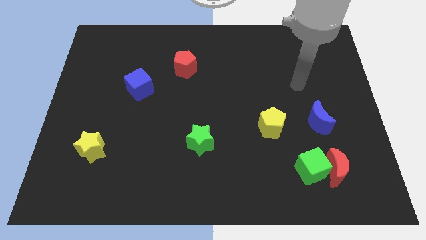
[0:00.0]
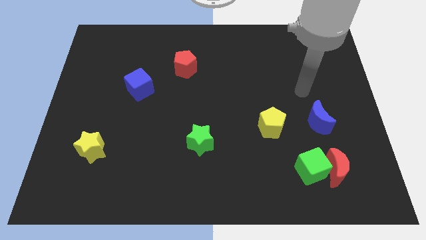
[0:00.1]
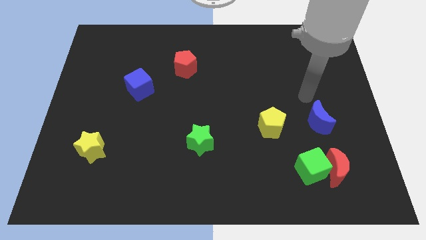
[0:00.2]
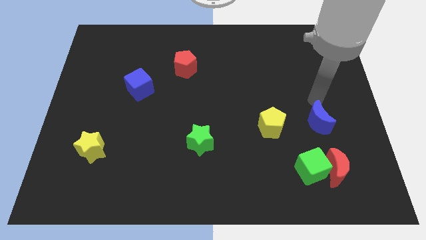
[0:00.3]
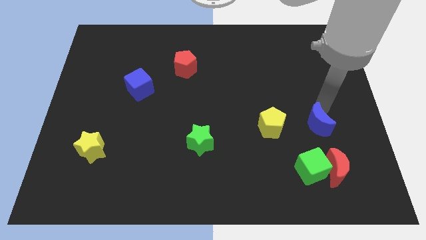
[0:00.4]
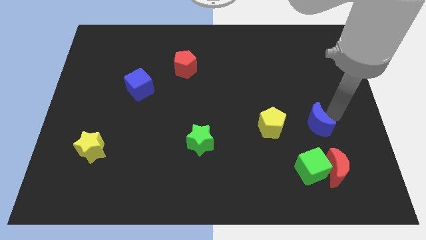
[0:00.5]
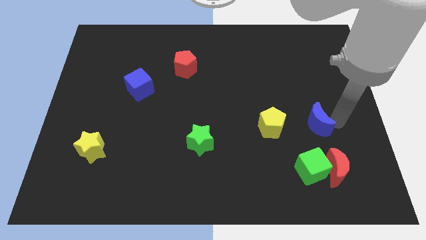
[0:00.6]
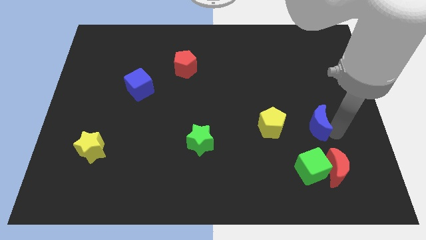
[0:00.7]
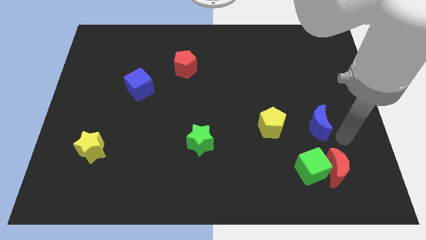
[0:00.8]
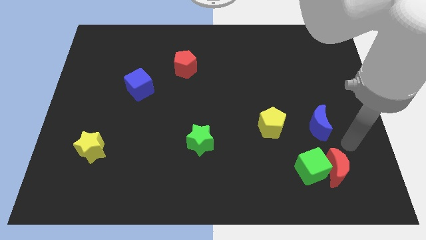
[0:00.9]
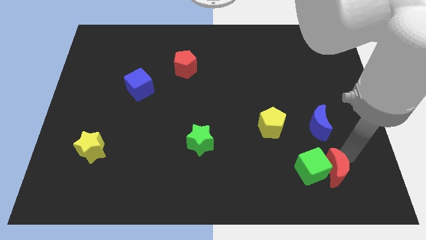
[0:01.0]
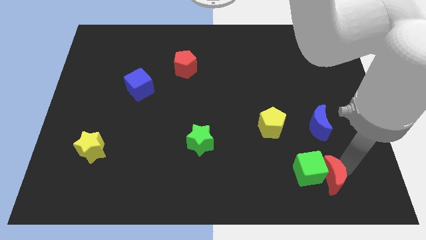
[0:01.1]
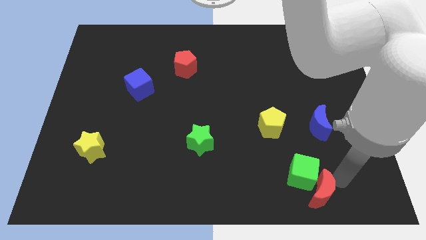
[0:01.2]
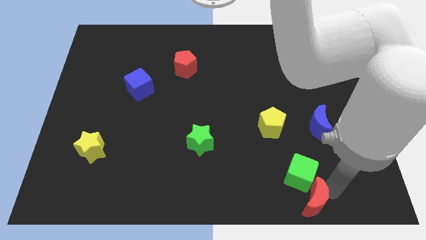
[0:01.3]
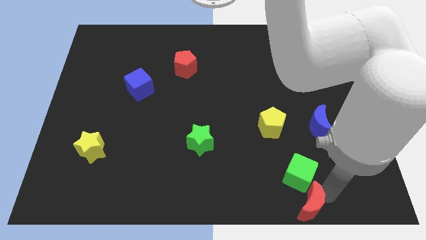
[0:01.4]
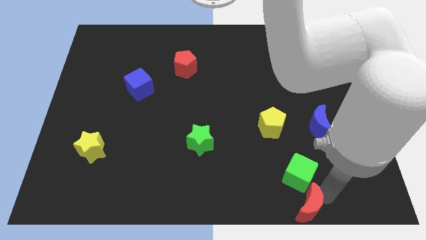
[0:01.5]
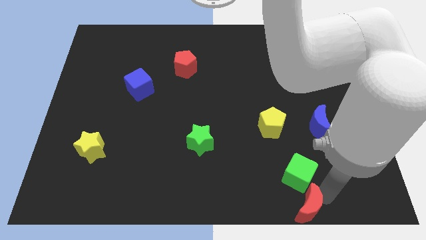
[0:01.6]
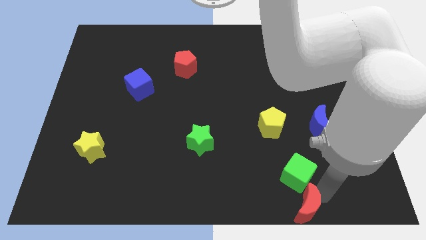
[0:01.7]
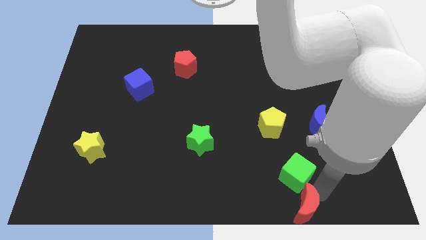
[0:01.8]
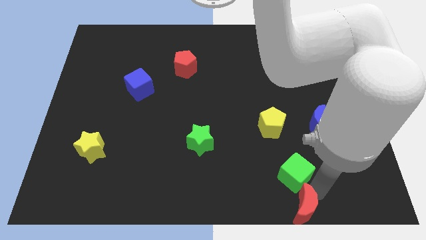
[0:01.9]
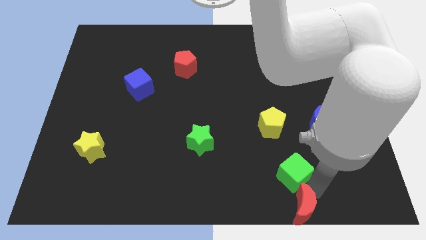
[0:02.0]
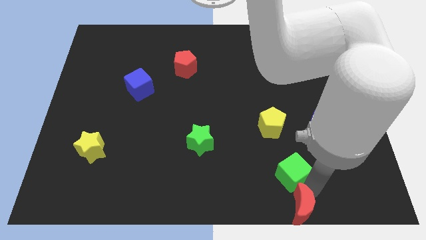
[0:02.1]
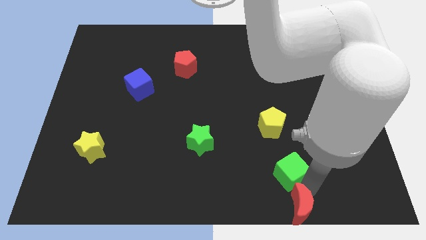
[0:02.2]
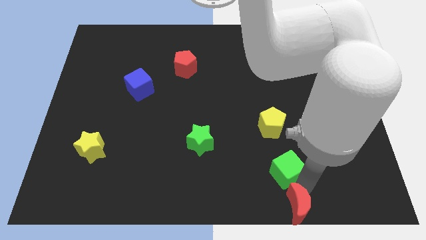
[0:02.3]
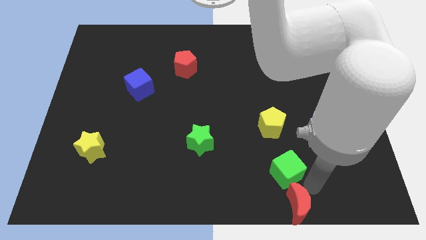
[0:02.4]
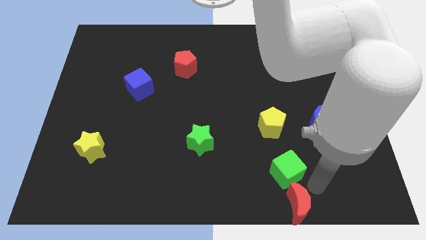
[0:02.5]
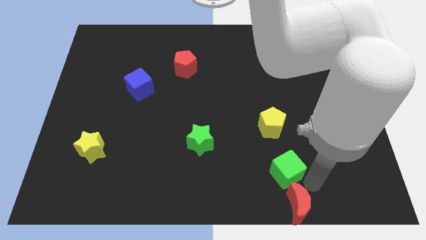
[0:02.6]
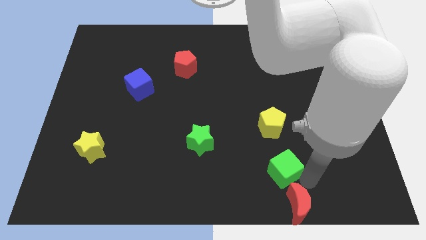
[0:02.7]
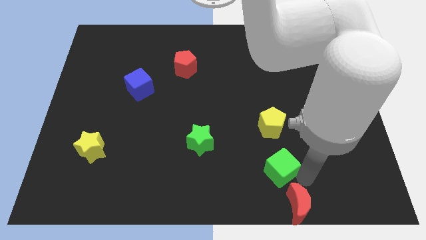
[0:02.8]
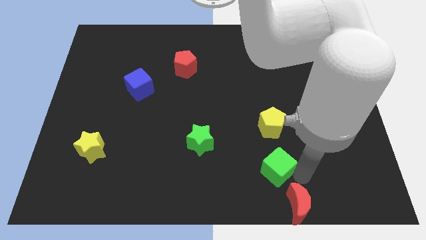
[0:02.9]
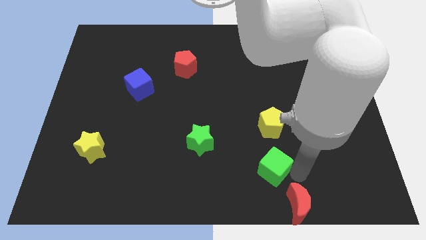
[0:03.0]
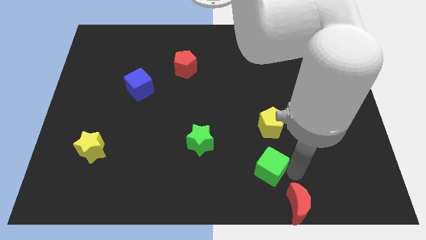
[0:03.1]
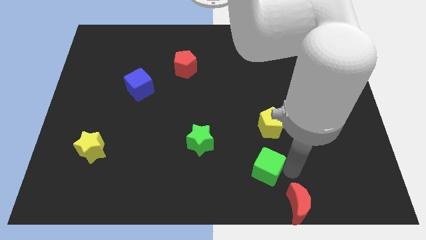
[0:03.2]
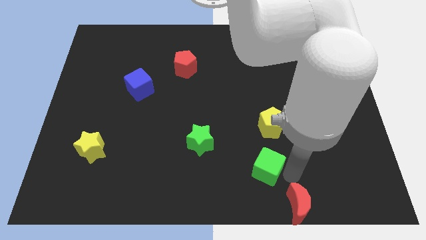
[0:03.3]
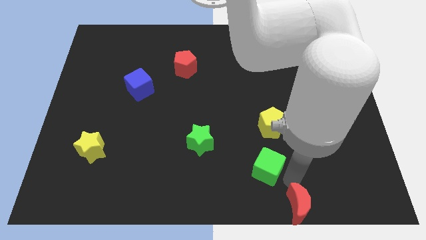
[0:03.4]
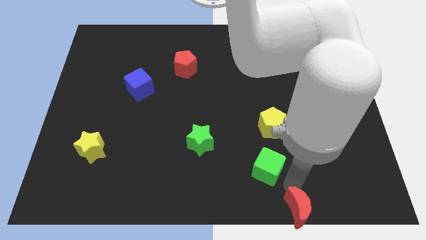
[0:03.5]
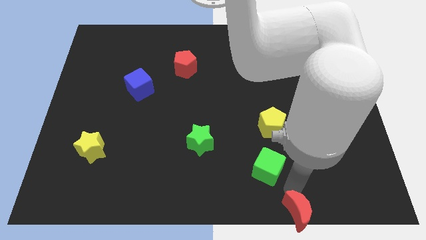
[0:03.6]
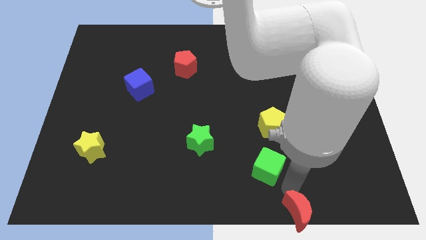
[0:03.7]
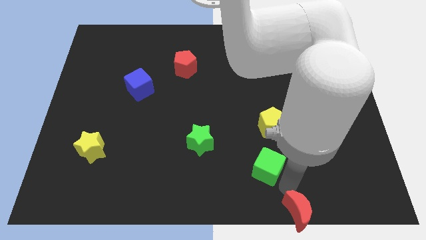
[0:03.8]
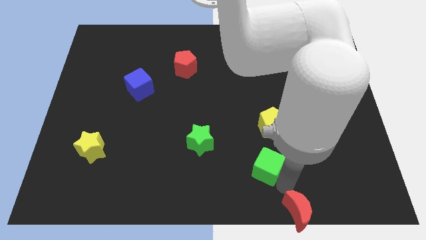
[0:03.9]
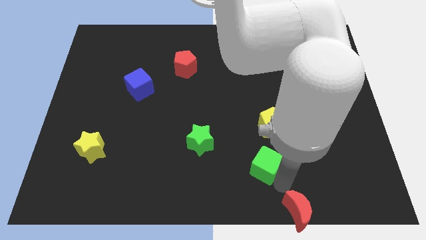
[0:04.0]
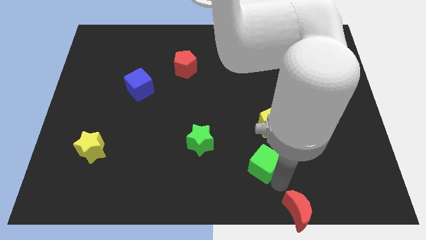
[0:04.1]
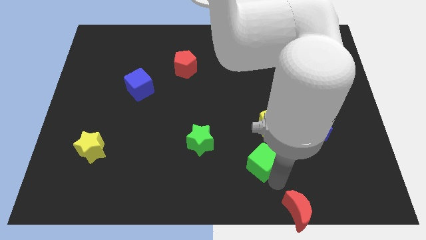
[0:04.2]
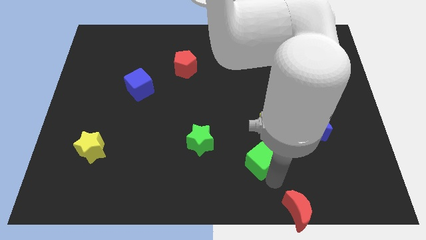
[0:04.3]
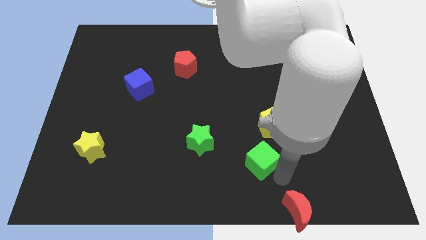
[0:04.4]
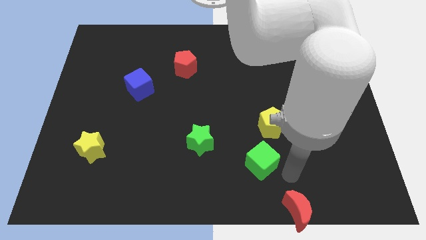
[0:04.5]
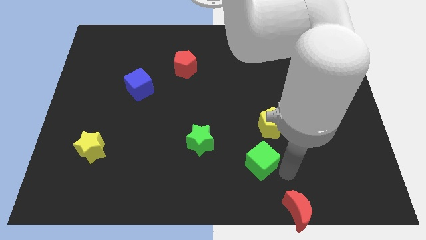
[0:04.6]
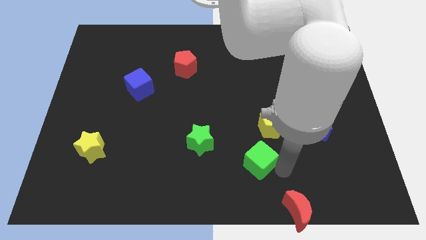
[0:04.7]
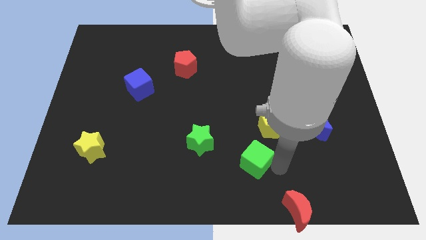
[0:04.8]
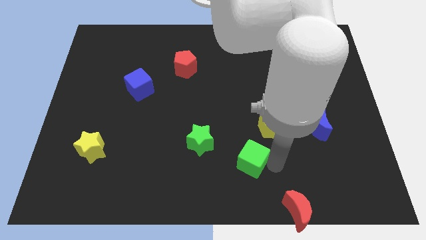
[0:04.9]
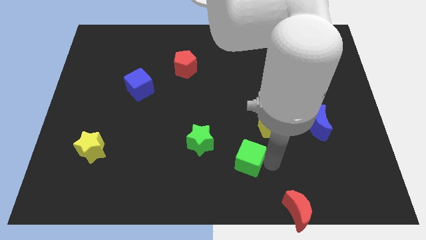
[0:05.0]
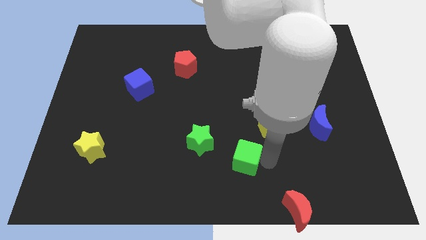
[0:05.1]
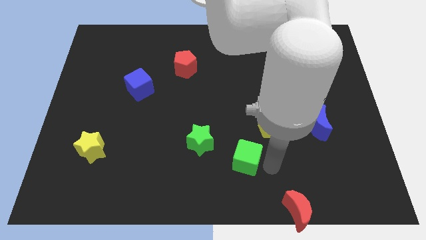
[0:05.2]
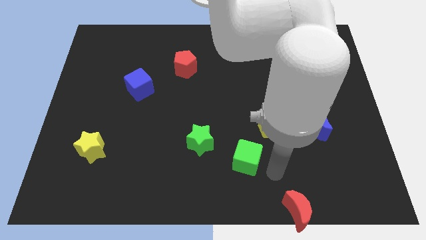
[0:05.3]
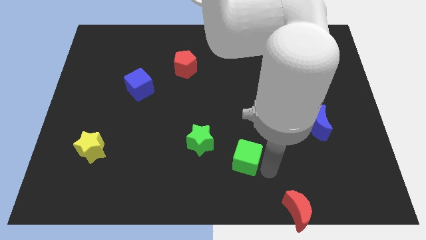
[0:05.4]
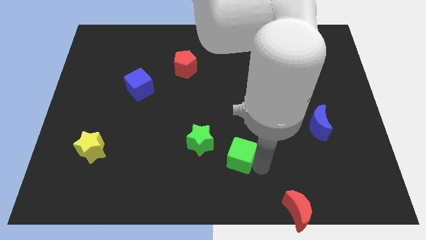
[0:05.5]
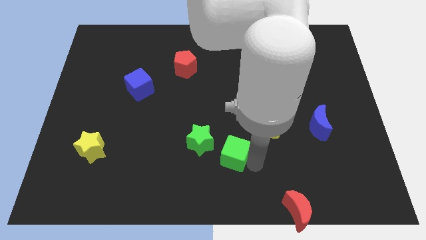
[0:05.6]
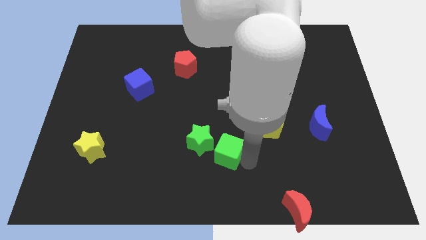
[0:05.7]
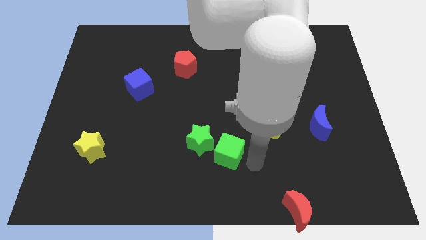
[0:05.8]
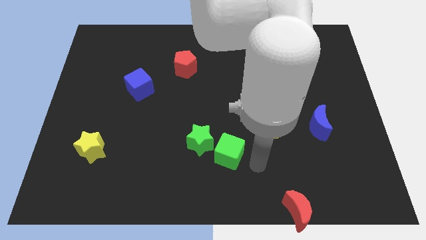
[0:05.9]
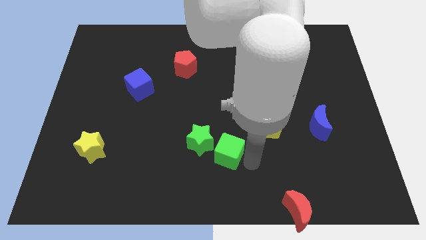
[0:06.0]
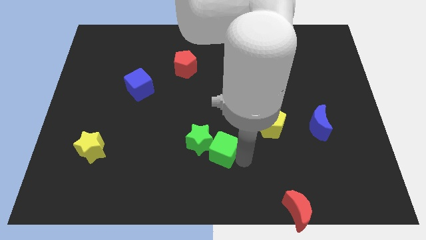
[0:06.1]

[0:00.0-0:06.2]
move the green cube to the green star

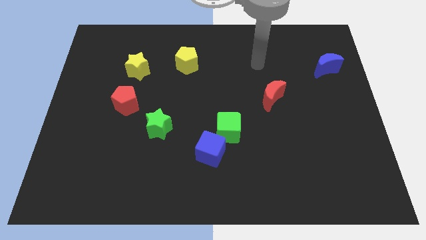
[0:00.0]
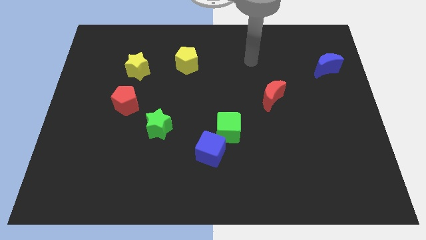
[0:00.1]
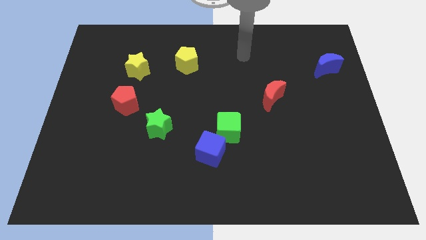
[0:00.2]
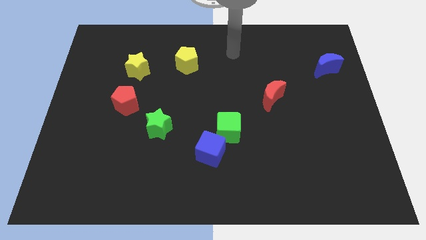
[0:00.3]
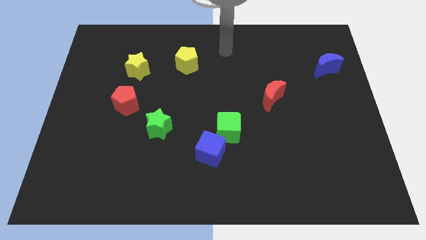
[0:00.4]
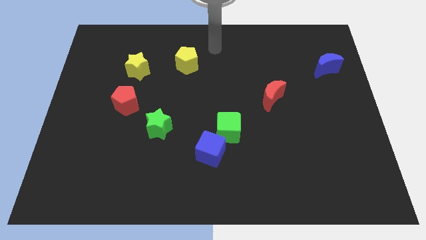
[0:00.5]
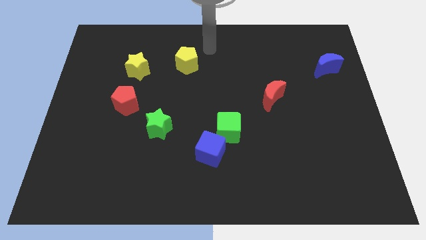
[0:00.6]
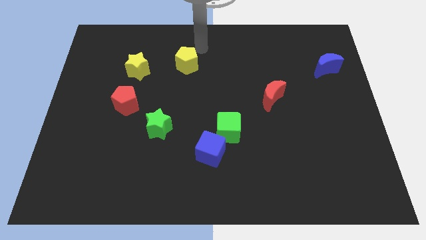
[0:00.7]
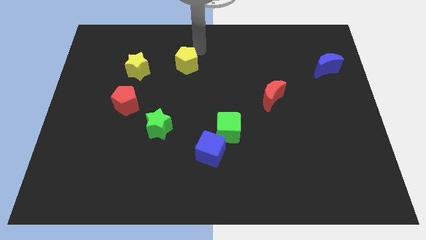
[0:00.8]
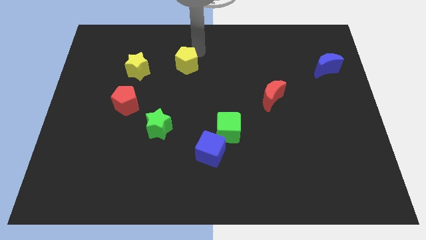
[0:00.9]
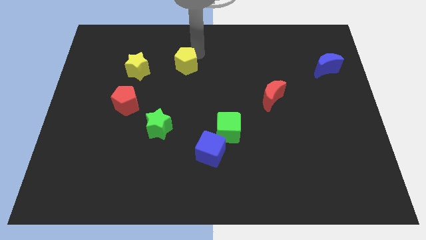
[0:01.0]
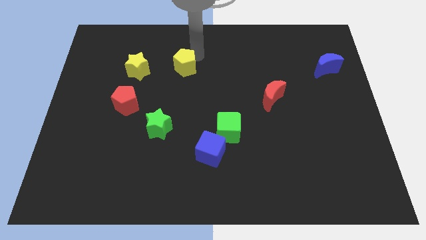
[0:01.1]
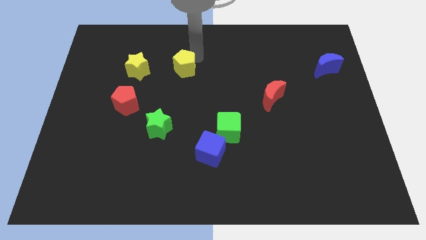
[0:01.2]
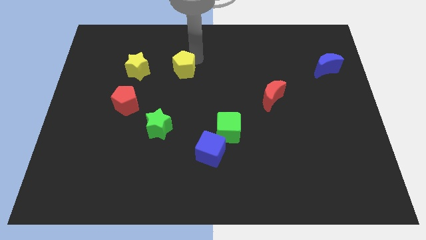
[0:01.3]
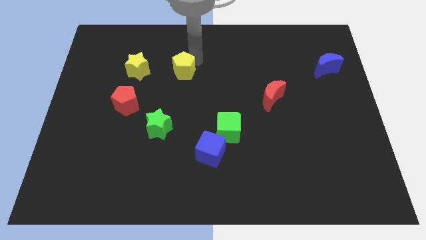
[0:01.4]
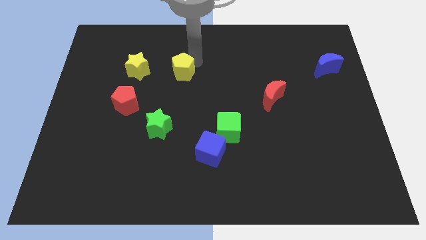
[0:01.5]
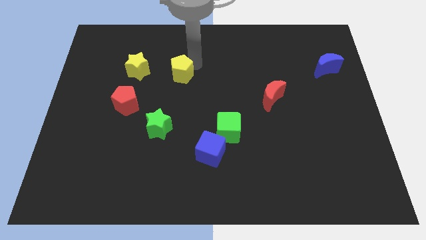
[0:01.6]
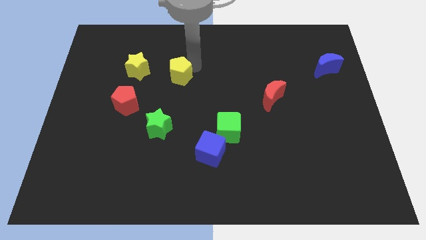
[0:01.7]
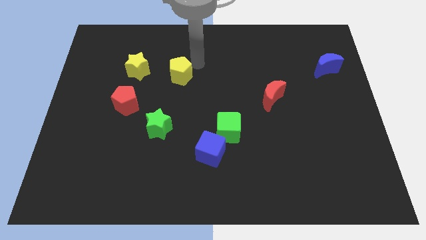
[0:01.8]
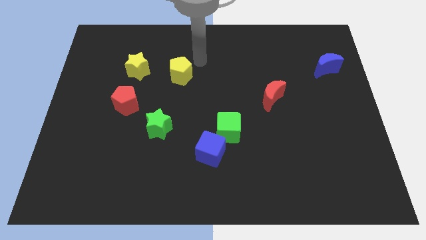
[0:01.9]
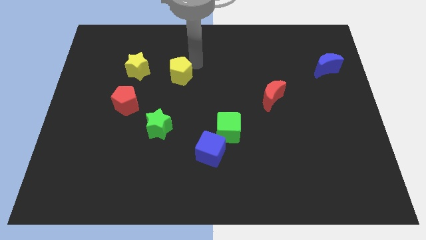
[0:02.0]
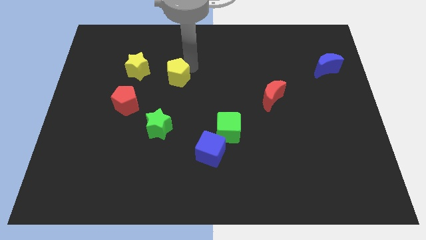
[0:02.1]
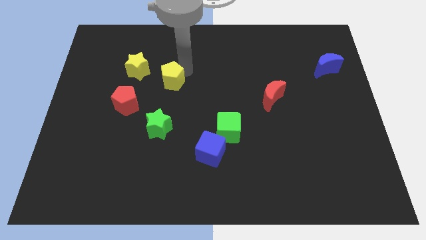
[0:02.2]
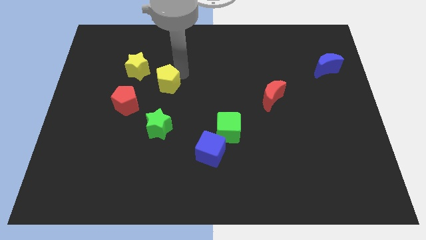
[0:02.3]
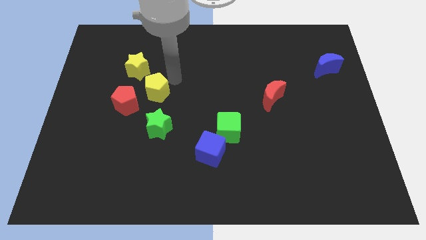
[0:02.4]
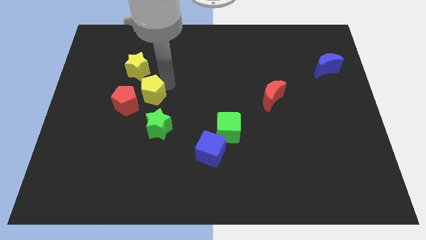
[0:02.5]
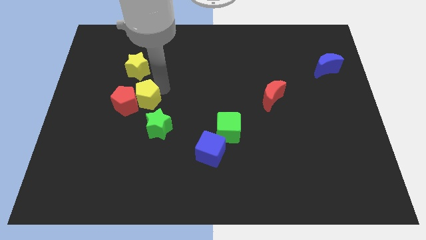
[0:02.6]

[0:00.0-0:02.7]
push the yellow pentagon next to the red pentagon
